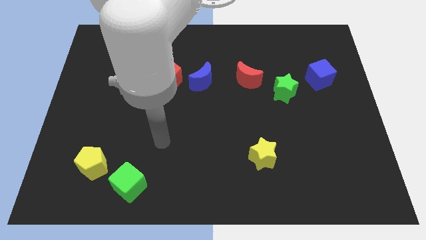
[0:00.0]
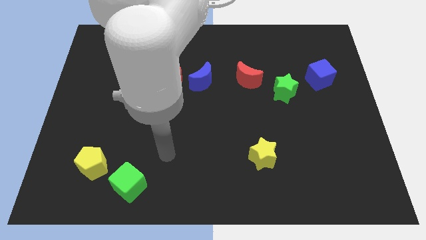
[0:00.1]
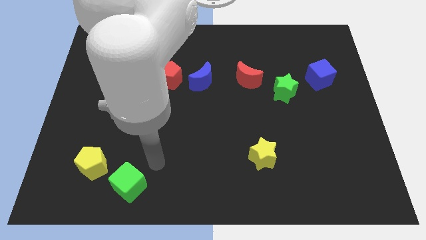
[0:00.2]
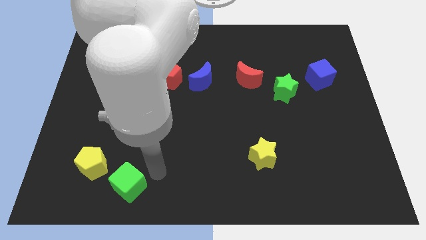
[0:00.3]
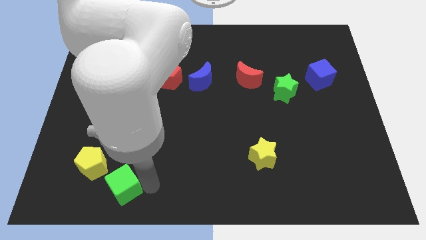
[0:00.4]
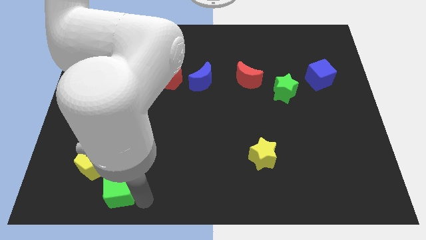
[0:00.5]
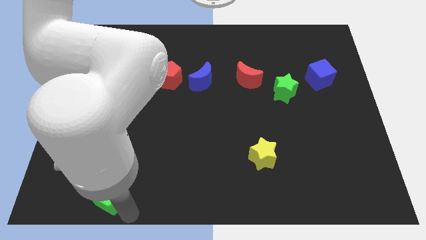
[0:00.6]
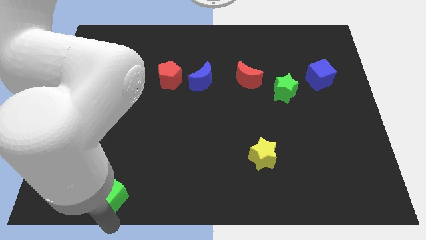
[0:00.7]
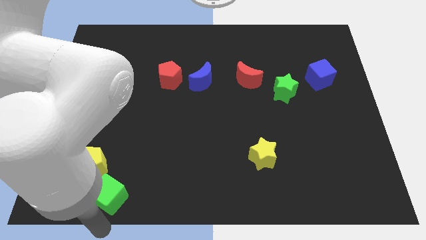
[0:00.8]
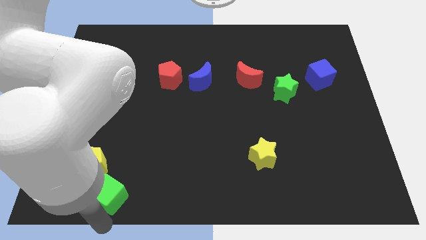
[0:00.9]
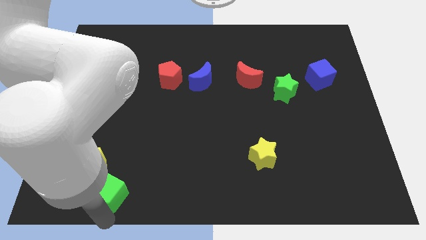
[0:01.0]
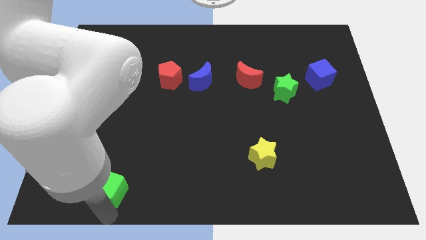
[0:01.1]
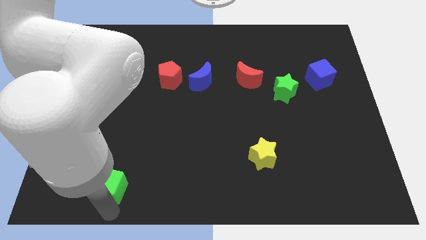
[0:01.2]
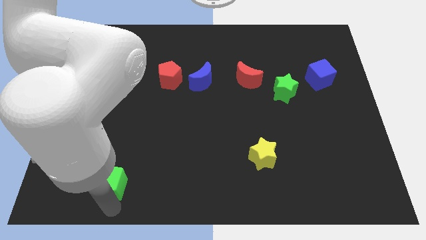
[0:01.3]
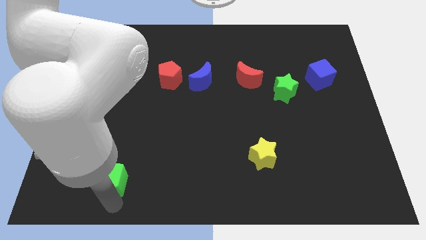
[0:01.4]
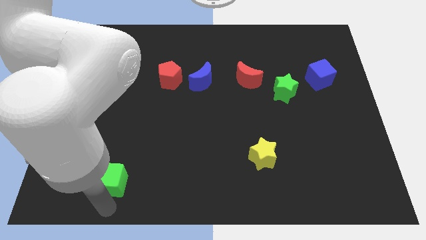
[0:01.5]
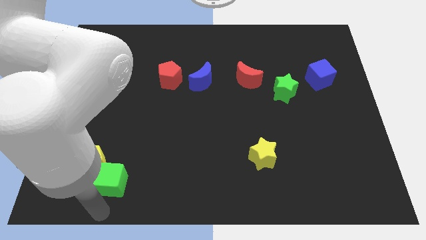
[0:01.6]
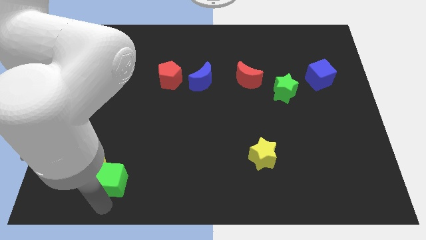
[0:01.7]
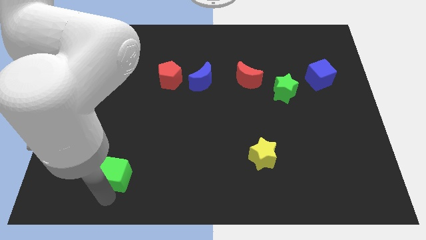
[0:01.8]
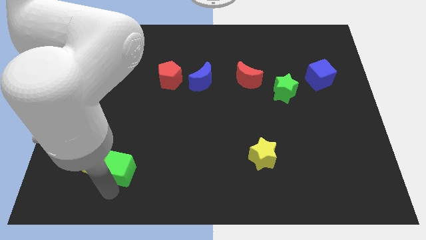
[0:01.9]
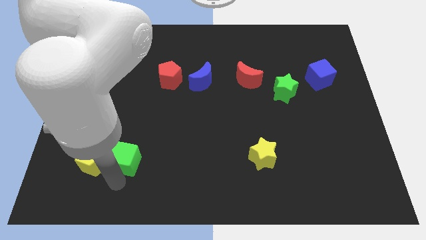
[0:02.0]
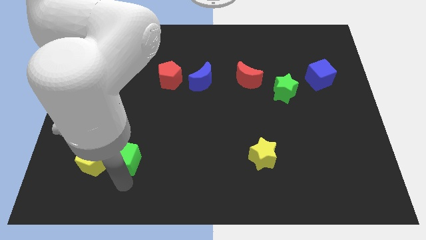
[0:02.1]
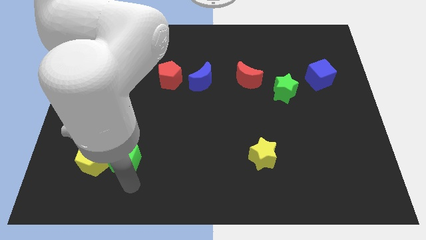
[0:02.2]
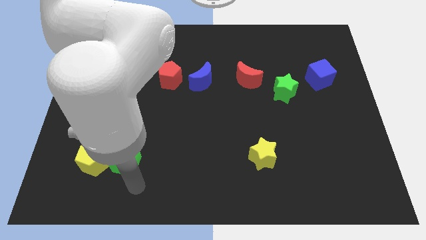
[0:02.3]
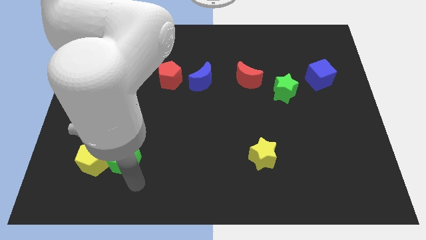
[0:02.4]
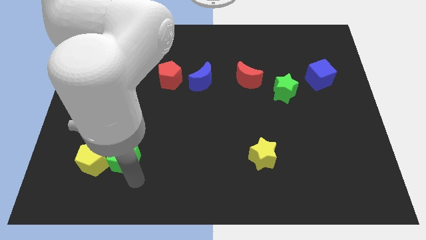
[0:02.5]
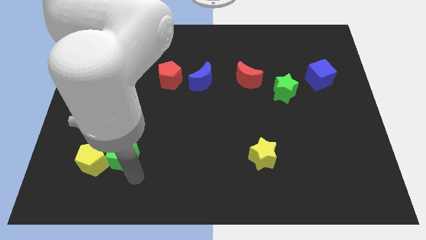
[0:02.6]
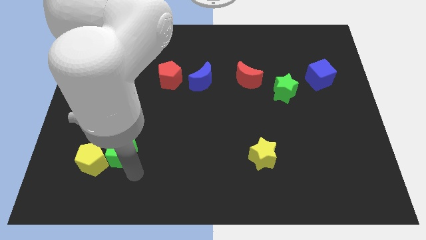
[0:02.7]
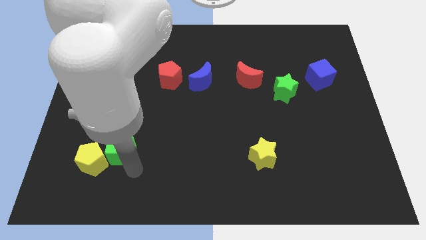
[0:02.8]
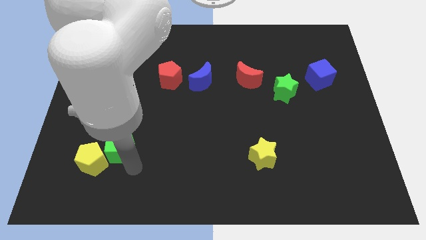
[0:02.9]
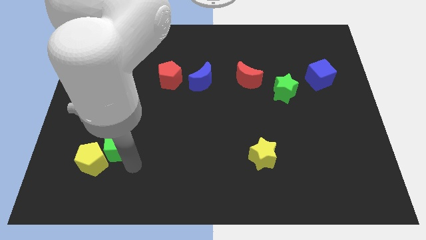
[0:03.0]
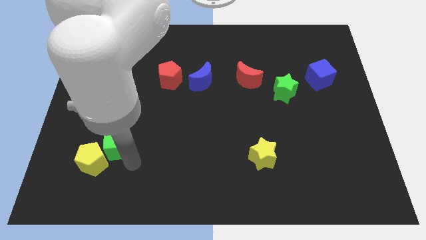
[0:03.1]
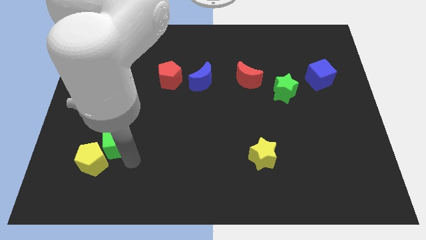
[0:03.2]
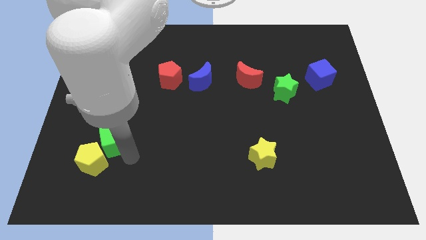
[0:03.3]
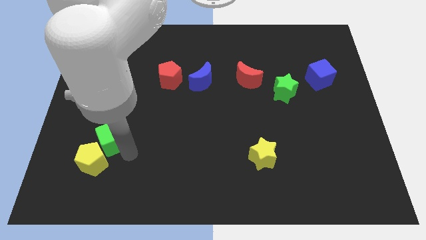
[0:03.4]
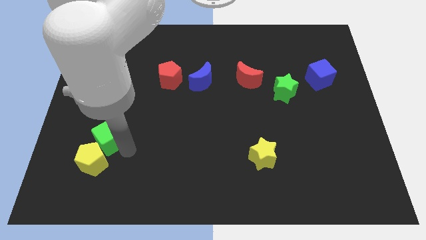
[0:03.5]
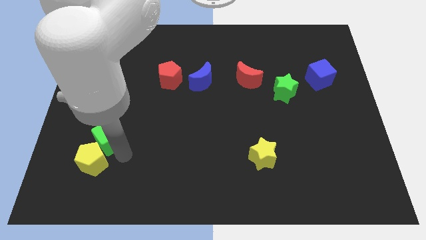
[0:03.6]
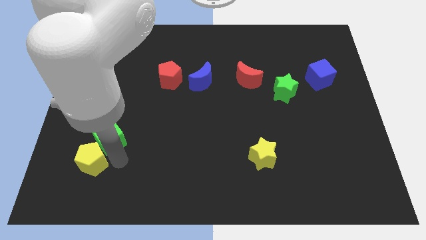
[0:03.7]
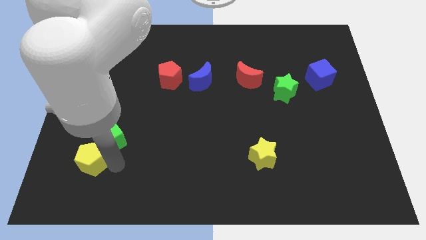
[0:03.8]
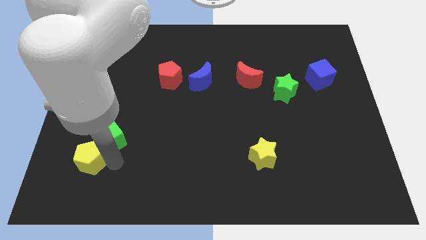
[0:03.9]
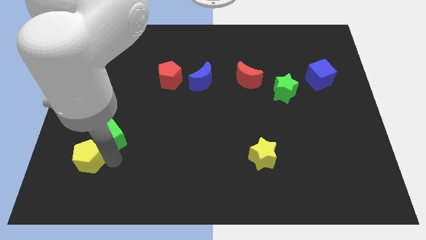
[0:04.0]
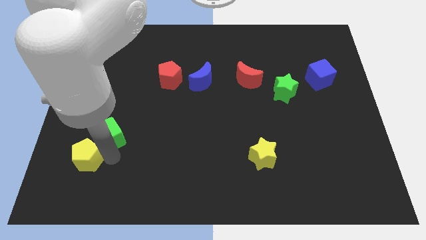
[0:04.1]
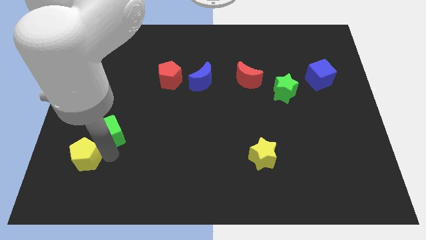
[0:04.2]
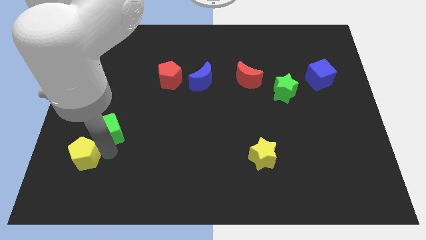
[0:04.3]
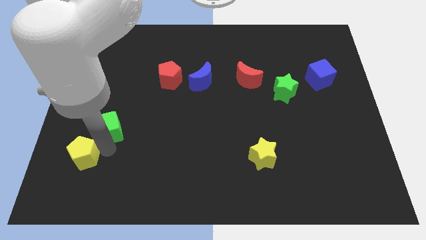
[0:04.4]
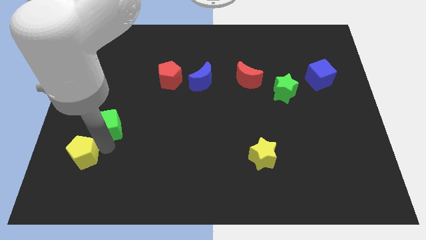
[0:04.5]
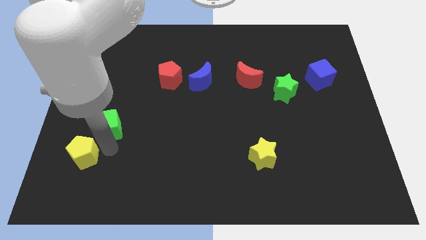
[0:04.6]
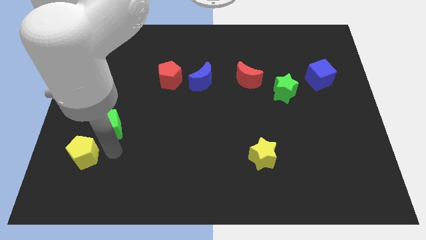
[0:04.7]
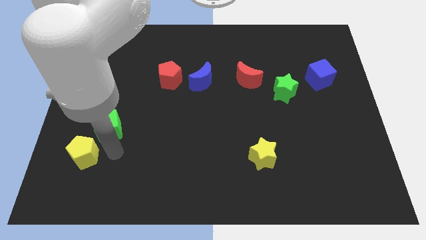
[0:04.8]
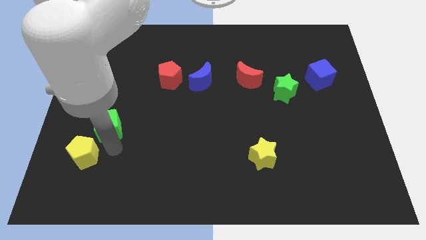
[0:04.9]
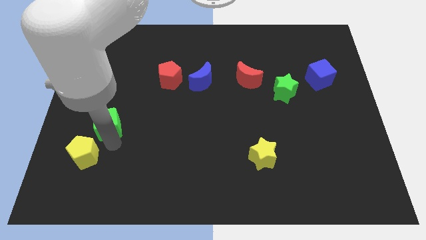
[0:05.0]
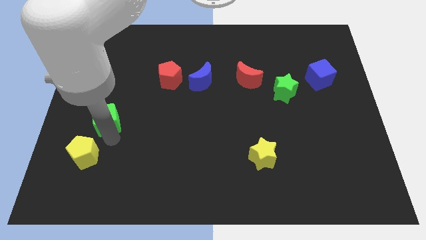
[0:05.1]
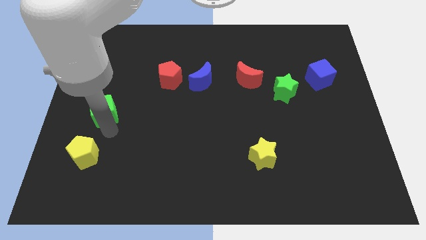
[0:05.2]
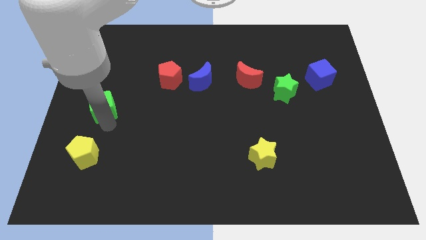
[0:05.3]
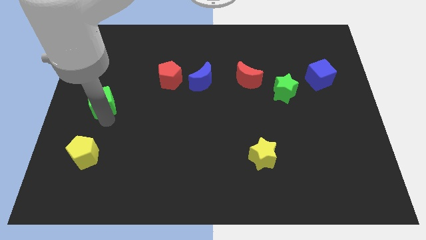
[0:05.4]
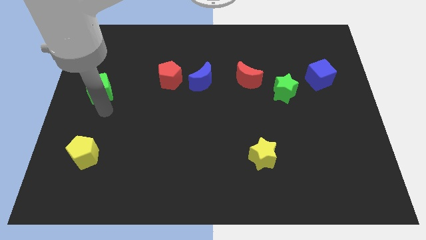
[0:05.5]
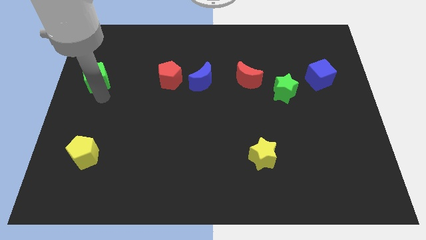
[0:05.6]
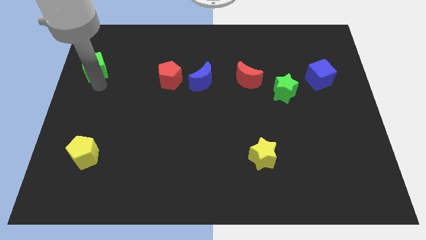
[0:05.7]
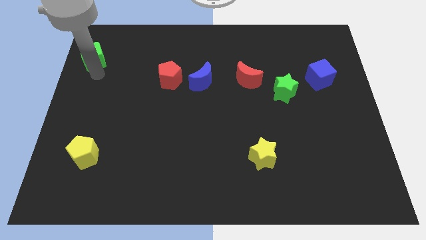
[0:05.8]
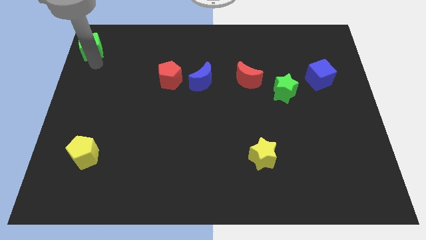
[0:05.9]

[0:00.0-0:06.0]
put the green cube to the top left corner
